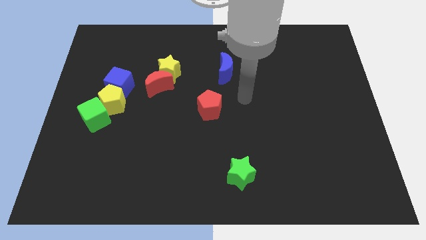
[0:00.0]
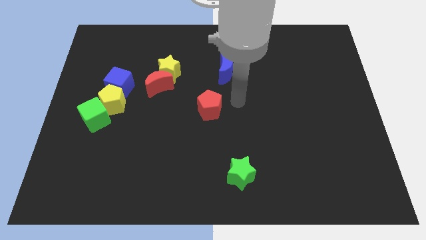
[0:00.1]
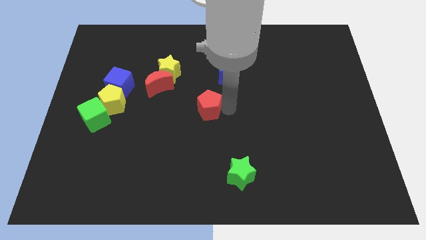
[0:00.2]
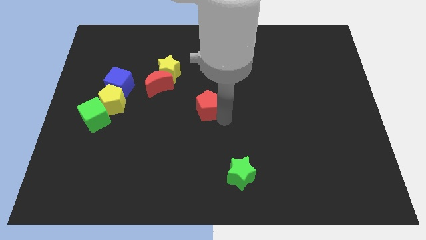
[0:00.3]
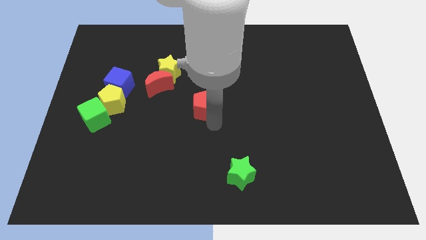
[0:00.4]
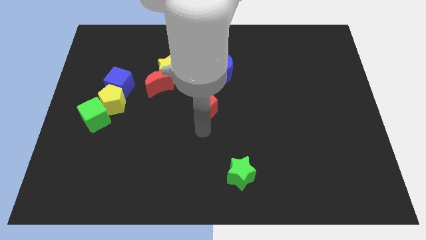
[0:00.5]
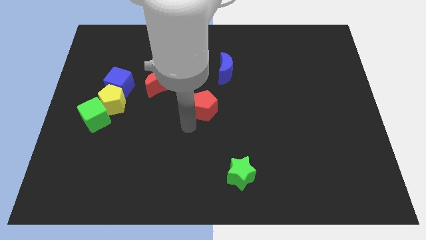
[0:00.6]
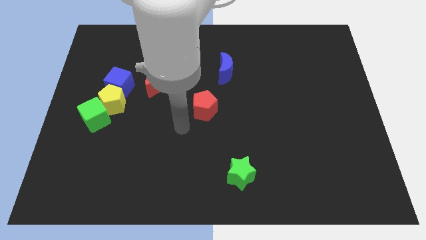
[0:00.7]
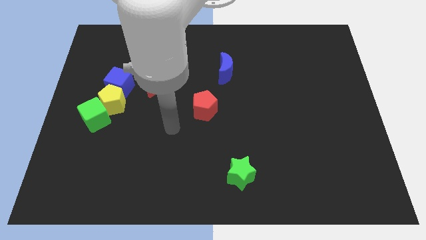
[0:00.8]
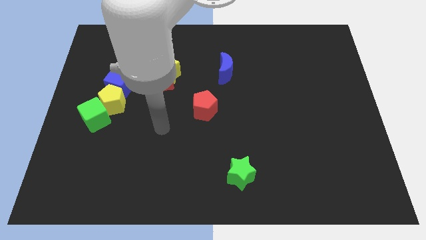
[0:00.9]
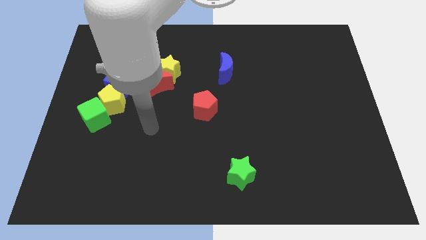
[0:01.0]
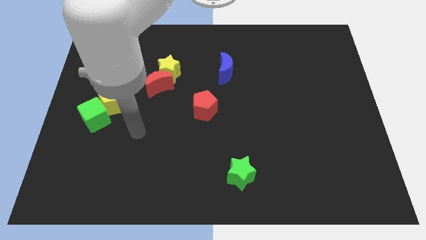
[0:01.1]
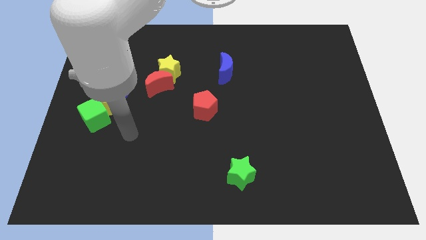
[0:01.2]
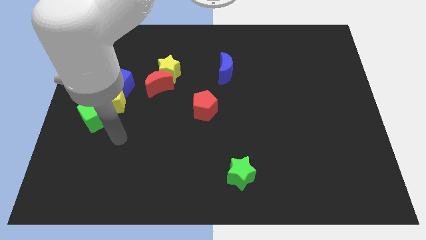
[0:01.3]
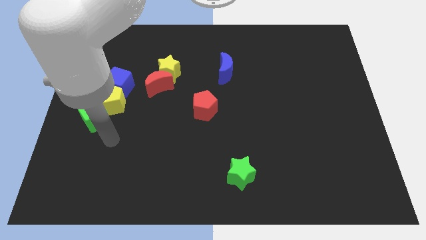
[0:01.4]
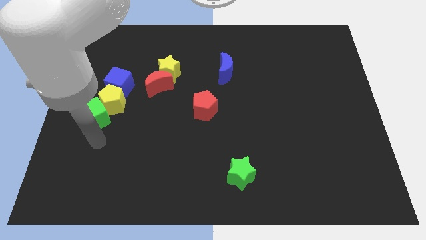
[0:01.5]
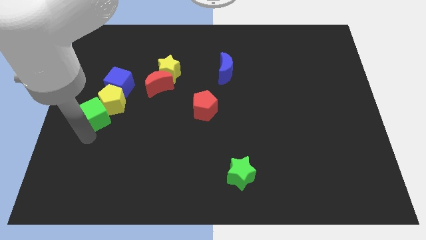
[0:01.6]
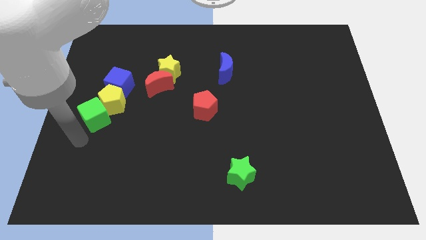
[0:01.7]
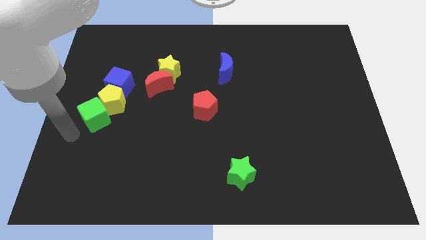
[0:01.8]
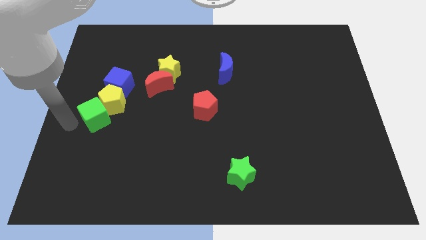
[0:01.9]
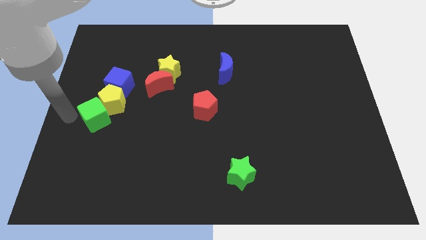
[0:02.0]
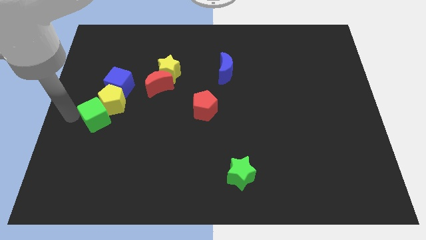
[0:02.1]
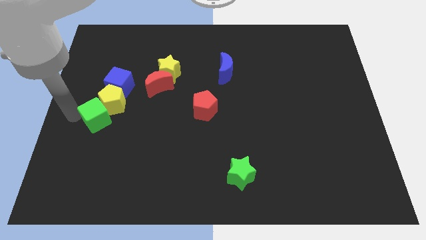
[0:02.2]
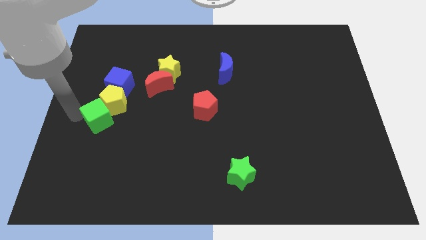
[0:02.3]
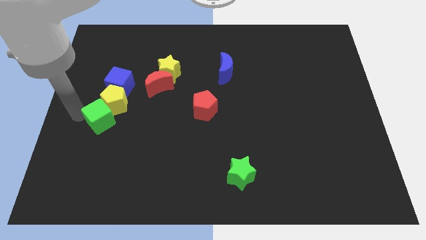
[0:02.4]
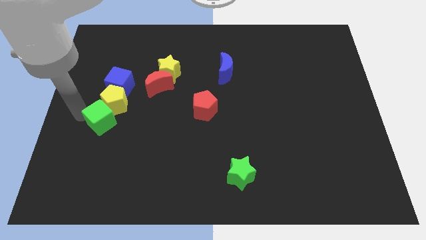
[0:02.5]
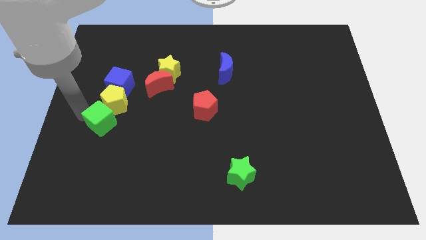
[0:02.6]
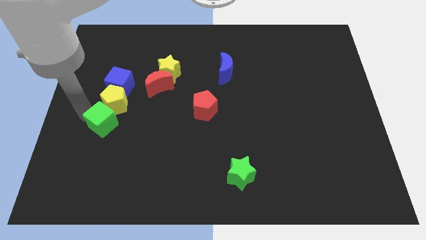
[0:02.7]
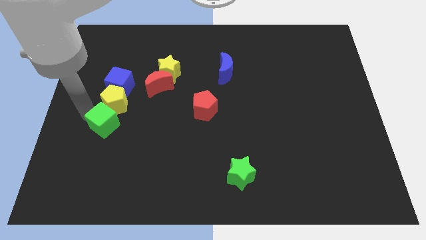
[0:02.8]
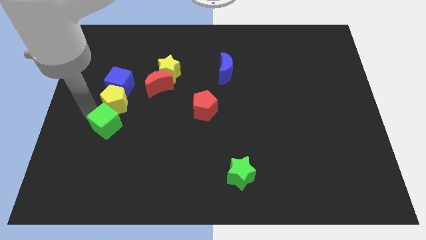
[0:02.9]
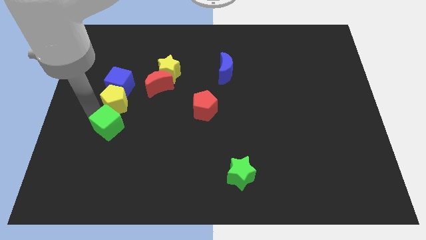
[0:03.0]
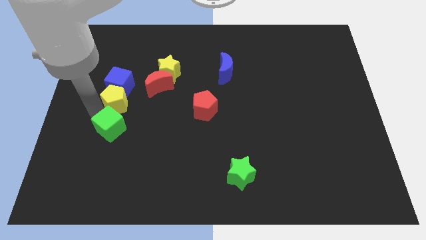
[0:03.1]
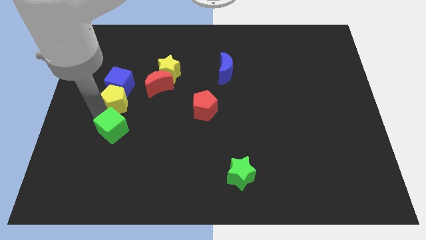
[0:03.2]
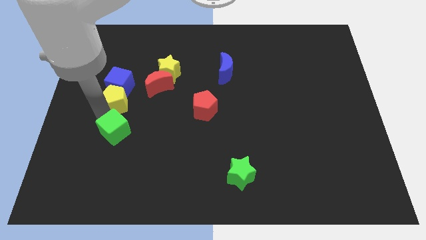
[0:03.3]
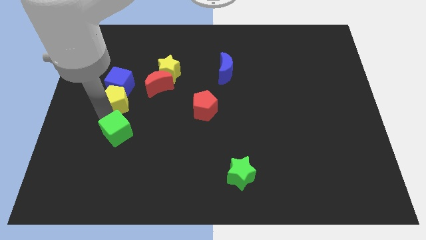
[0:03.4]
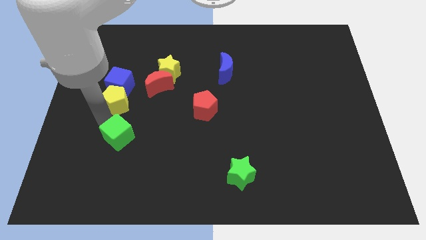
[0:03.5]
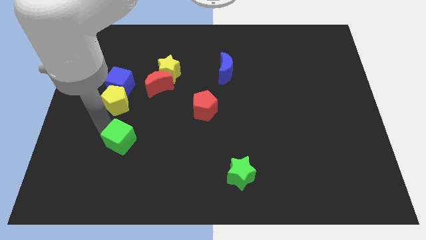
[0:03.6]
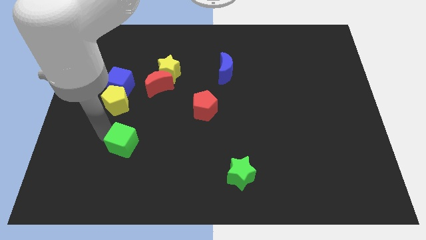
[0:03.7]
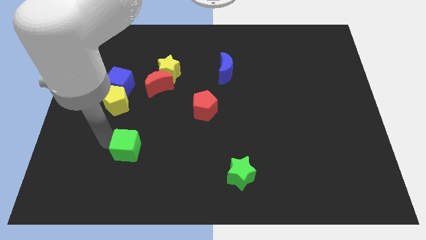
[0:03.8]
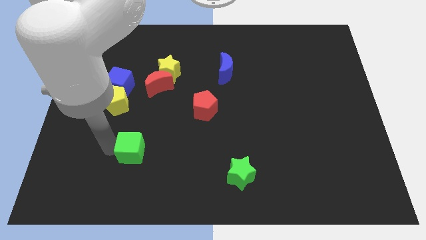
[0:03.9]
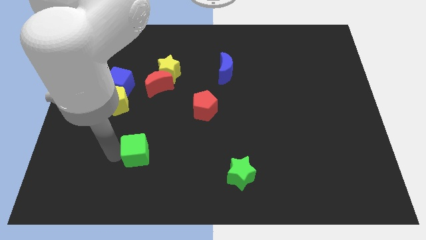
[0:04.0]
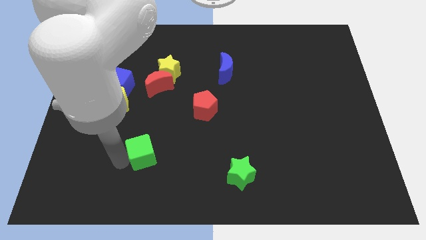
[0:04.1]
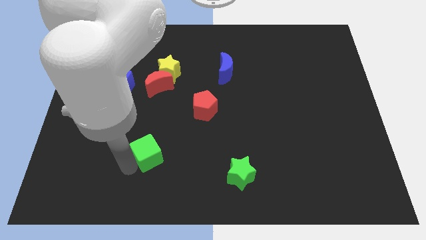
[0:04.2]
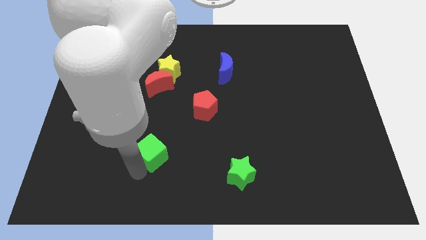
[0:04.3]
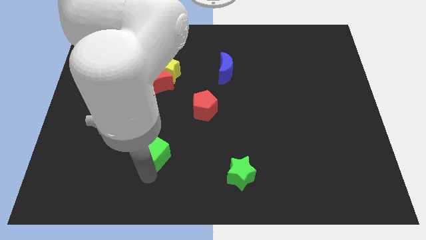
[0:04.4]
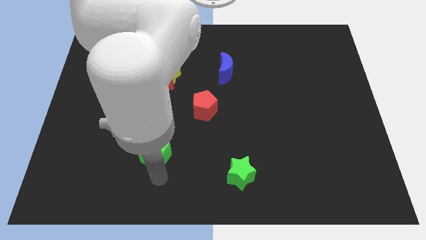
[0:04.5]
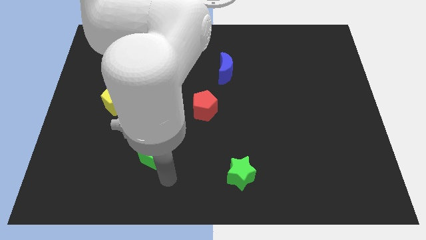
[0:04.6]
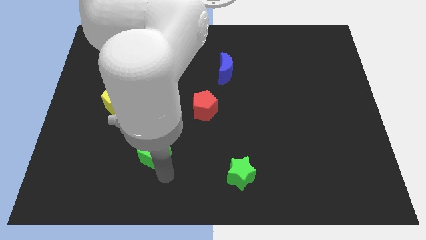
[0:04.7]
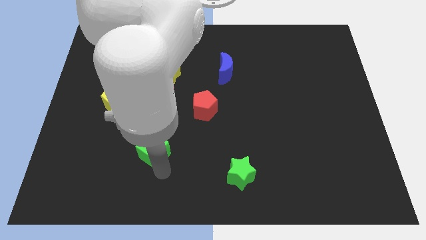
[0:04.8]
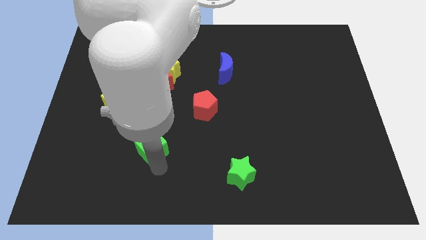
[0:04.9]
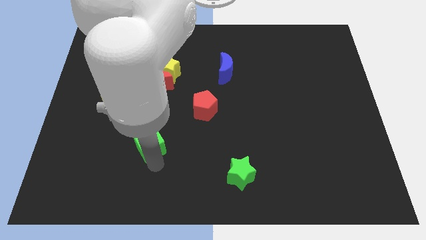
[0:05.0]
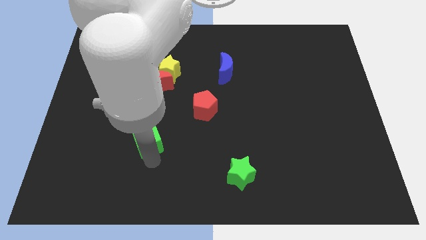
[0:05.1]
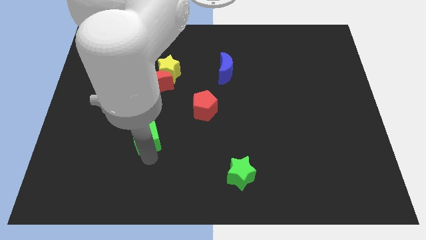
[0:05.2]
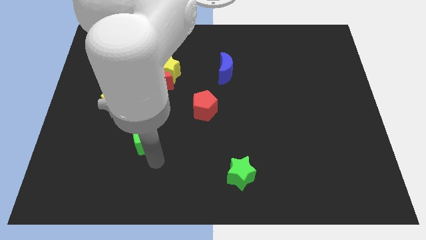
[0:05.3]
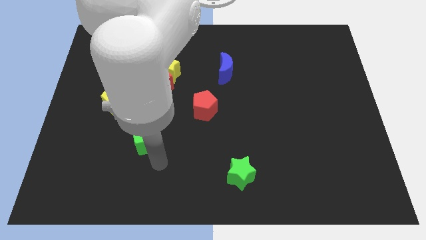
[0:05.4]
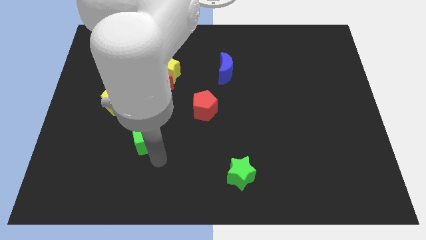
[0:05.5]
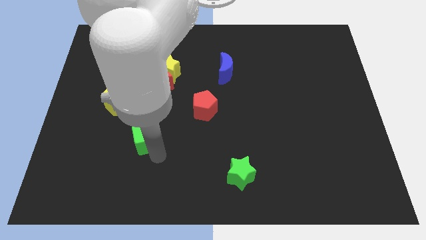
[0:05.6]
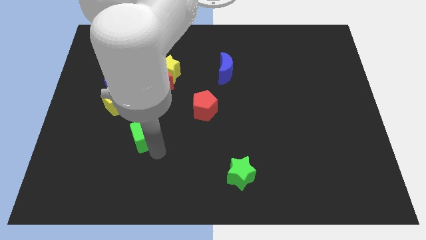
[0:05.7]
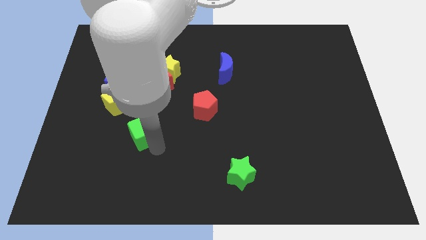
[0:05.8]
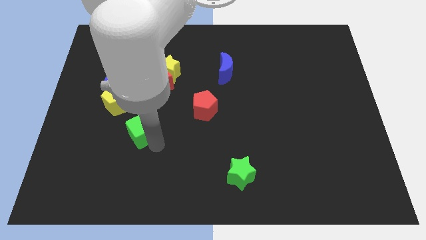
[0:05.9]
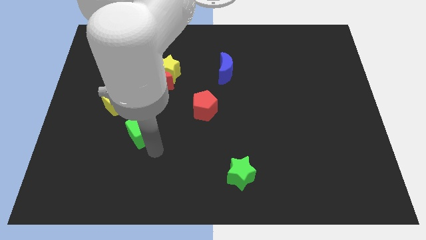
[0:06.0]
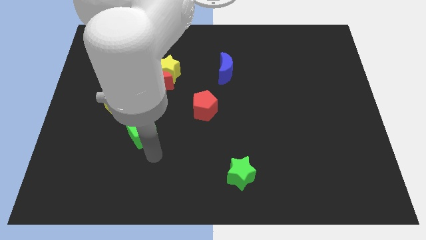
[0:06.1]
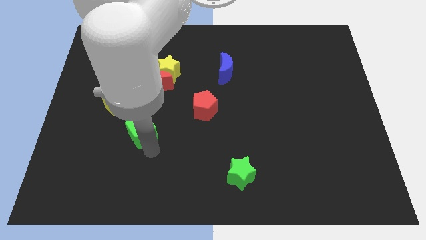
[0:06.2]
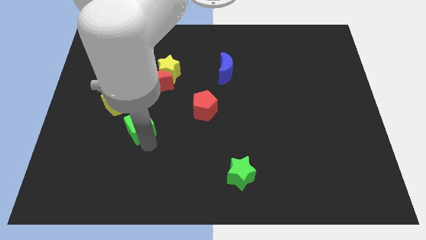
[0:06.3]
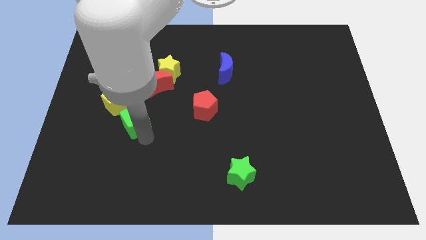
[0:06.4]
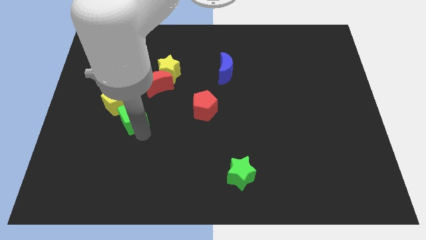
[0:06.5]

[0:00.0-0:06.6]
slide the green cube to the right side of the yellow pentagon

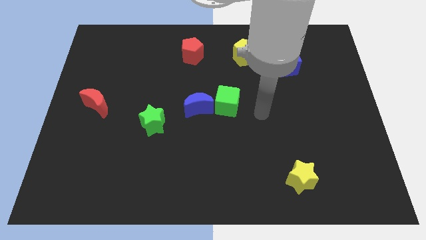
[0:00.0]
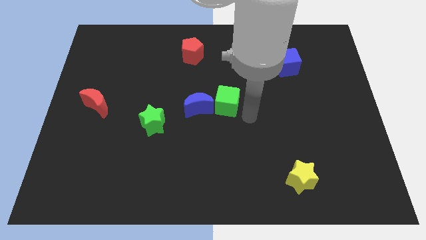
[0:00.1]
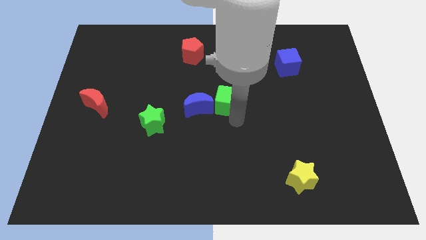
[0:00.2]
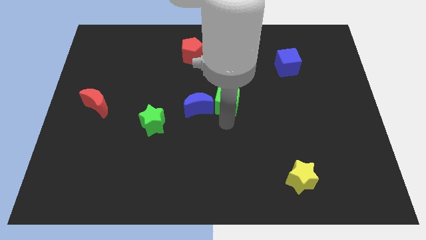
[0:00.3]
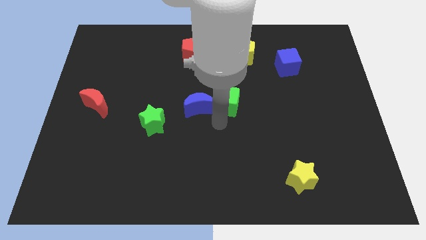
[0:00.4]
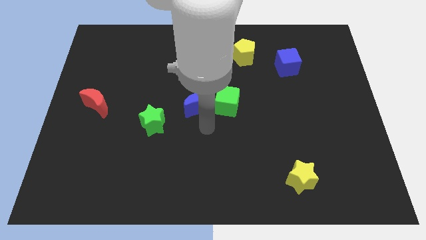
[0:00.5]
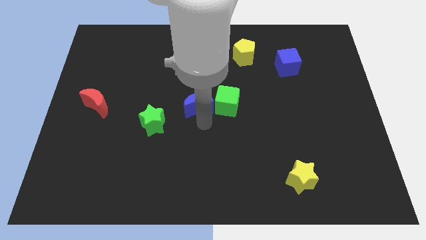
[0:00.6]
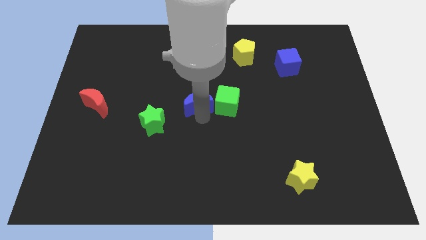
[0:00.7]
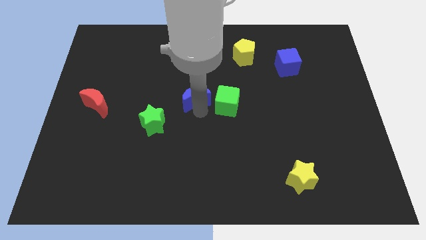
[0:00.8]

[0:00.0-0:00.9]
push the blue moon below the red pentagon

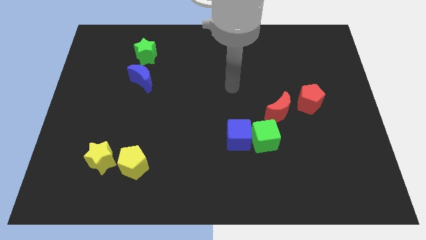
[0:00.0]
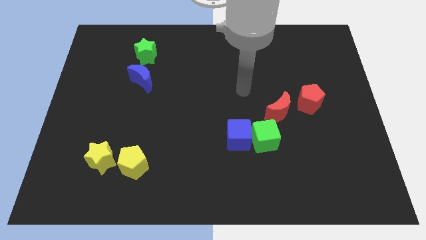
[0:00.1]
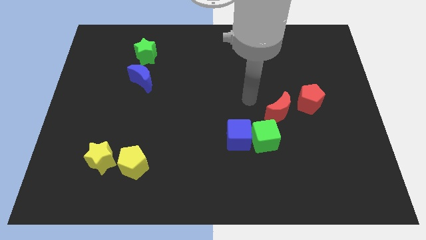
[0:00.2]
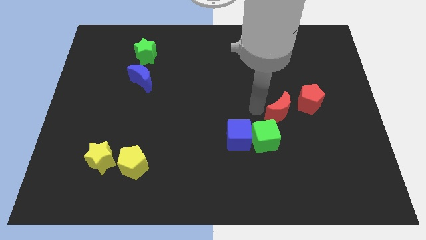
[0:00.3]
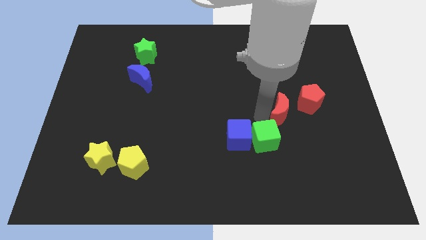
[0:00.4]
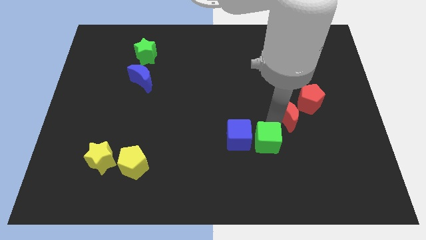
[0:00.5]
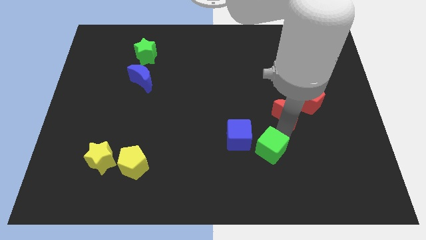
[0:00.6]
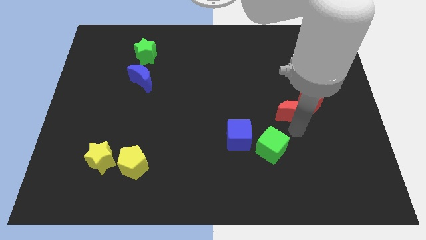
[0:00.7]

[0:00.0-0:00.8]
move the red pentagon to the top of the red moon

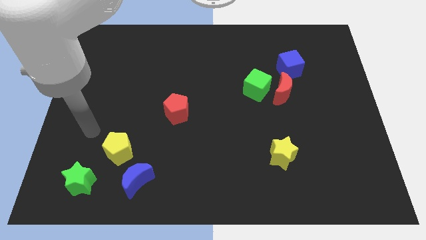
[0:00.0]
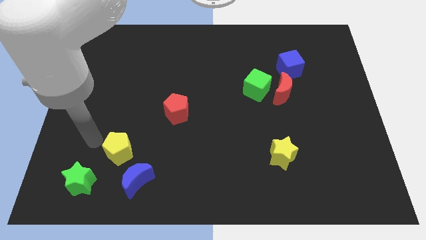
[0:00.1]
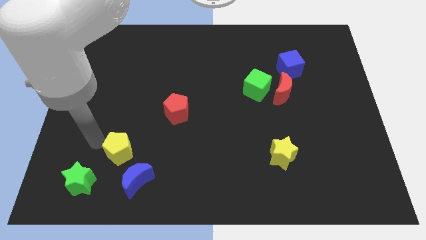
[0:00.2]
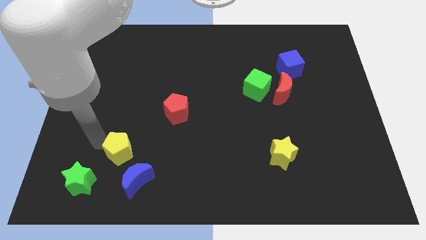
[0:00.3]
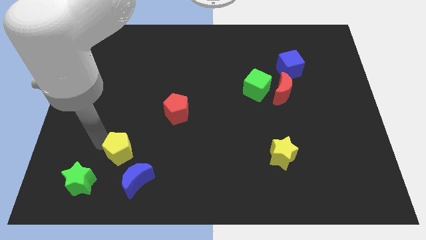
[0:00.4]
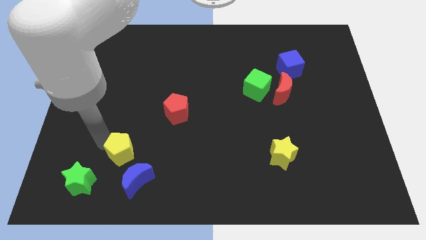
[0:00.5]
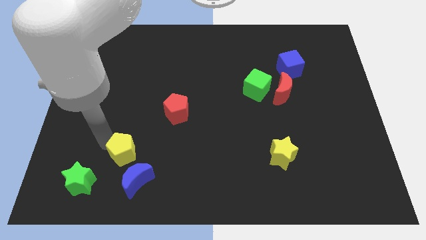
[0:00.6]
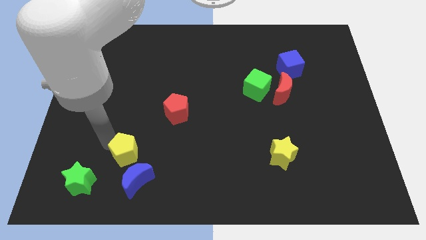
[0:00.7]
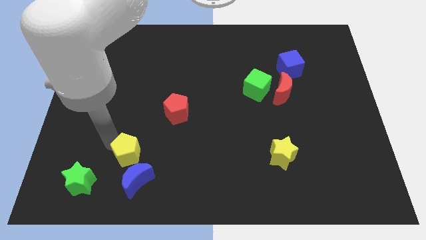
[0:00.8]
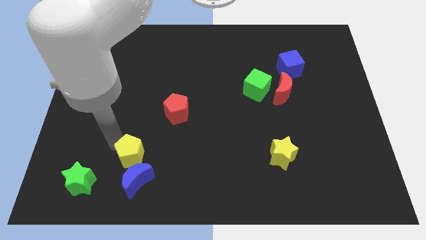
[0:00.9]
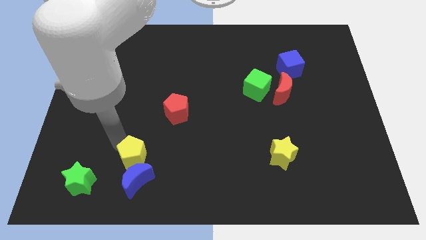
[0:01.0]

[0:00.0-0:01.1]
push the yellow pentagon to the top right of the blue moon
